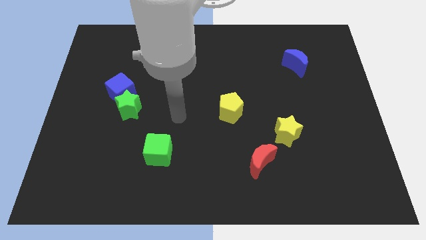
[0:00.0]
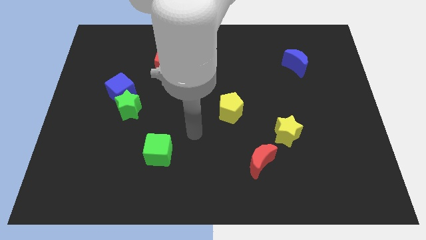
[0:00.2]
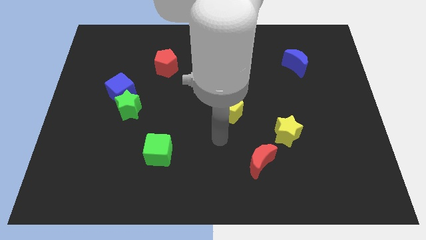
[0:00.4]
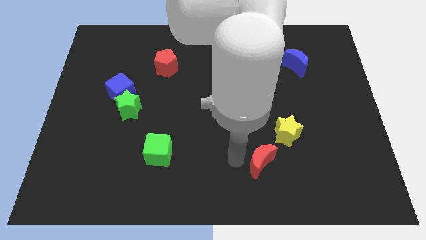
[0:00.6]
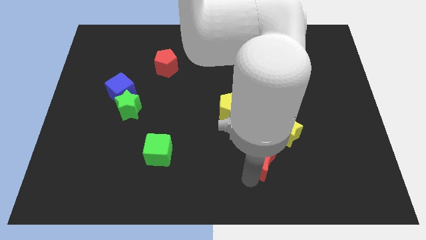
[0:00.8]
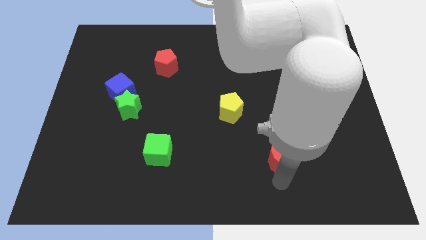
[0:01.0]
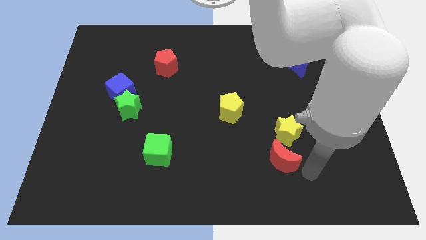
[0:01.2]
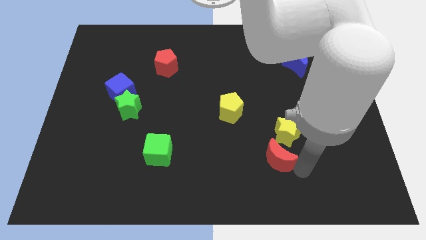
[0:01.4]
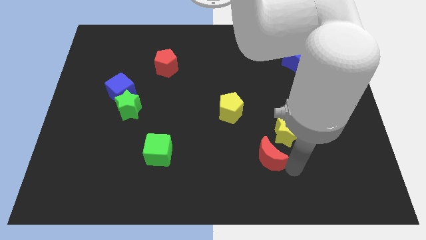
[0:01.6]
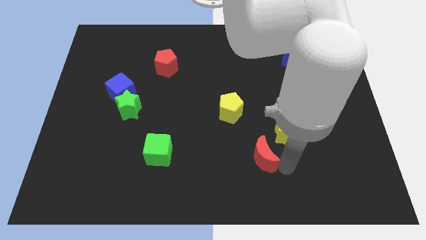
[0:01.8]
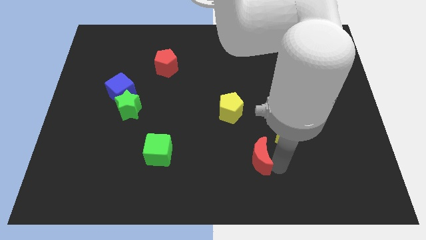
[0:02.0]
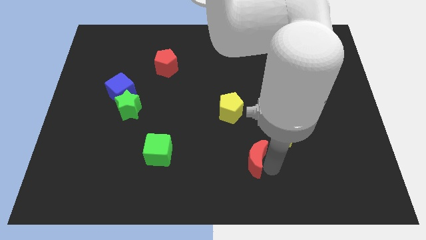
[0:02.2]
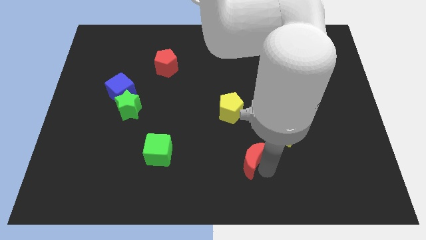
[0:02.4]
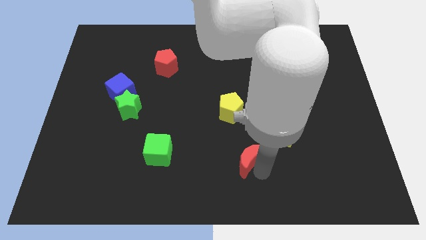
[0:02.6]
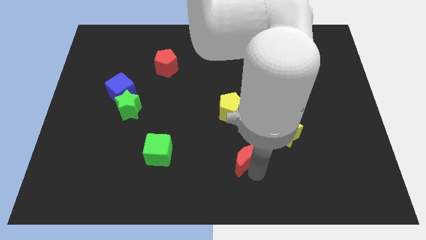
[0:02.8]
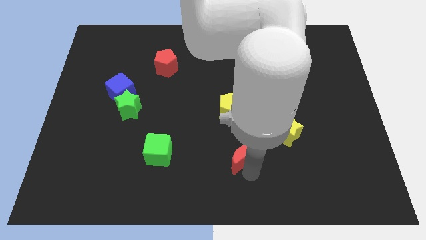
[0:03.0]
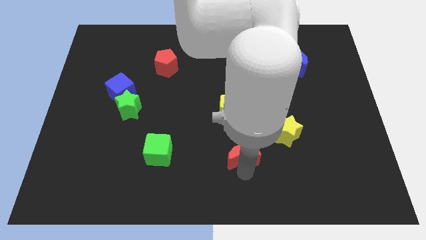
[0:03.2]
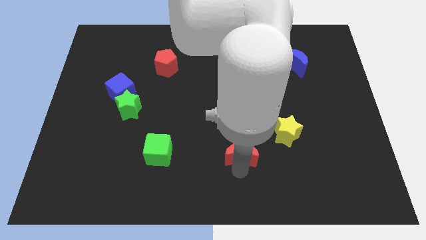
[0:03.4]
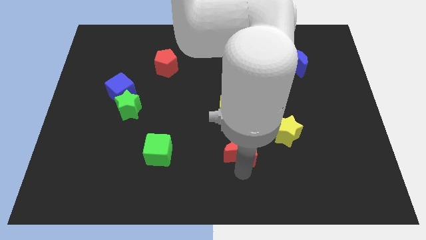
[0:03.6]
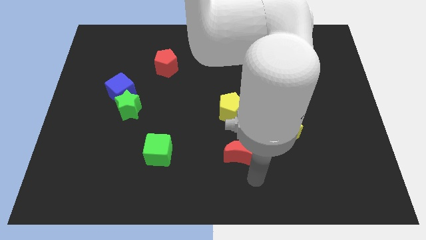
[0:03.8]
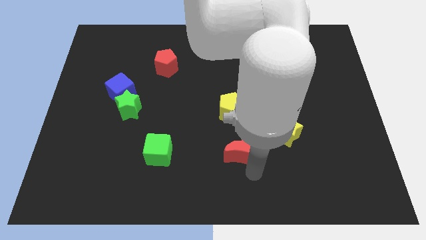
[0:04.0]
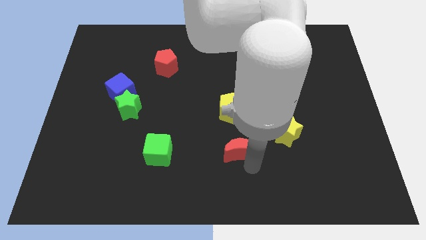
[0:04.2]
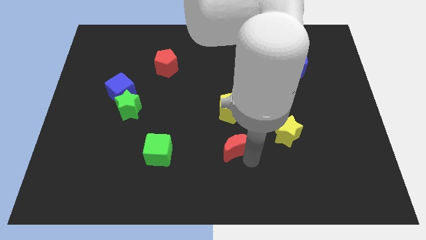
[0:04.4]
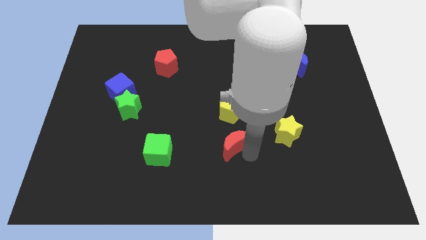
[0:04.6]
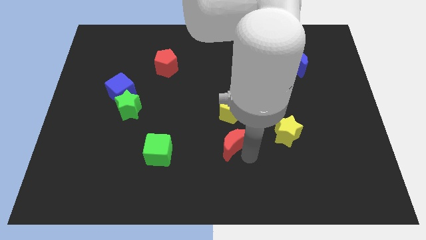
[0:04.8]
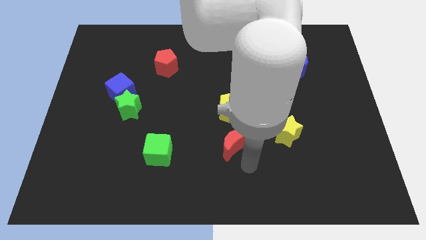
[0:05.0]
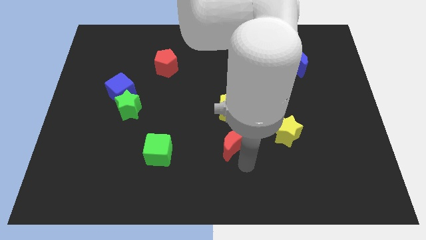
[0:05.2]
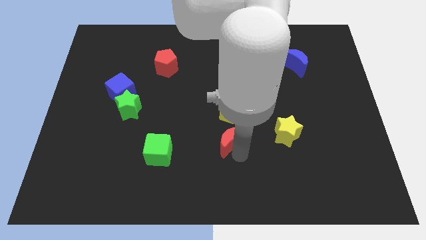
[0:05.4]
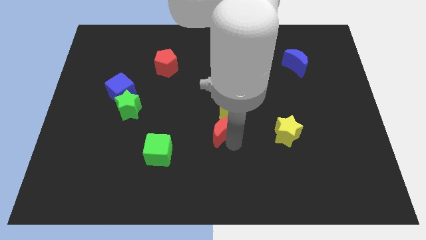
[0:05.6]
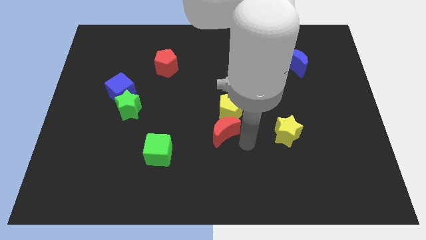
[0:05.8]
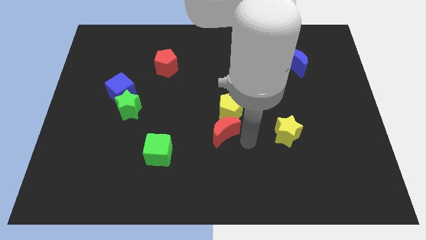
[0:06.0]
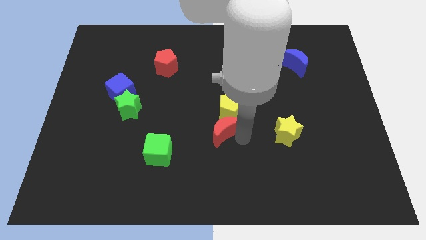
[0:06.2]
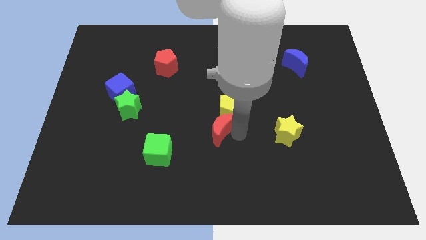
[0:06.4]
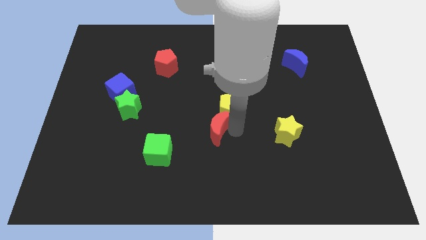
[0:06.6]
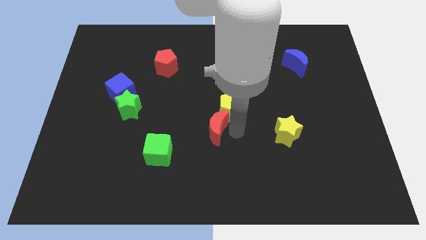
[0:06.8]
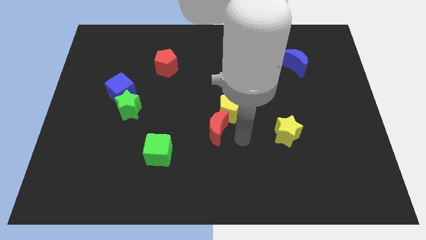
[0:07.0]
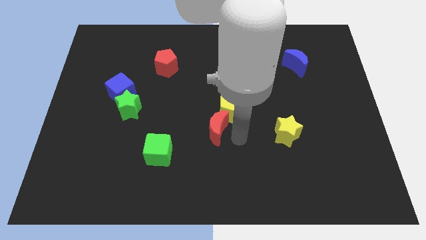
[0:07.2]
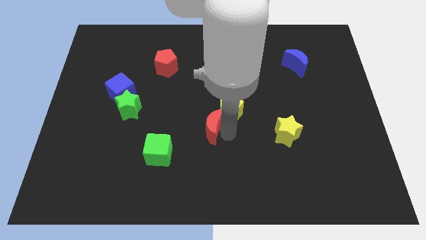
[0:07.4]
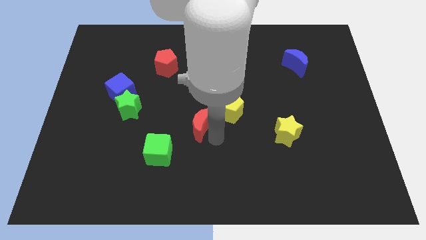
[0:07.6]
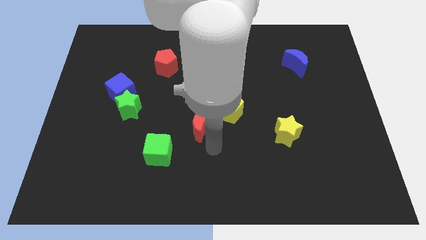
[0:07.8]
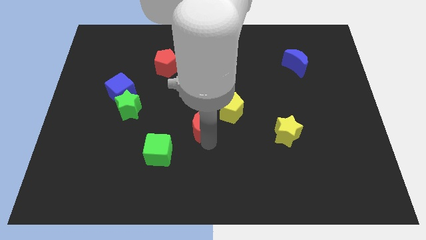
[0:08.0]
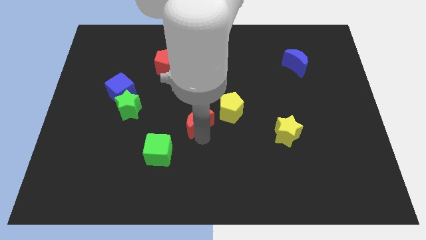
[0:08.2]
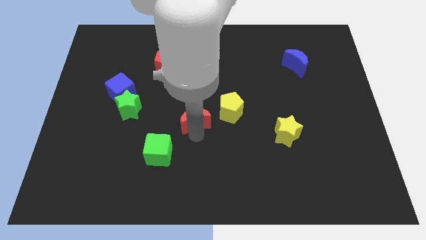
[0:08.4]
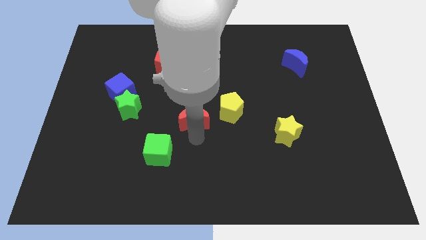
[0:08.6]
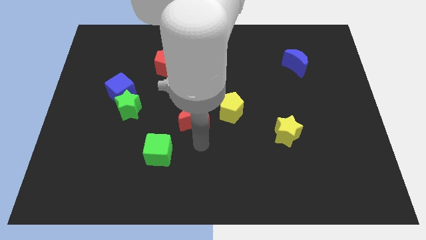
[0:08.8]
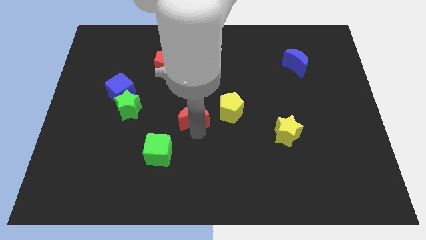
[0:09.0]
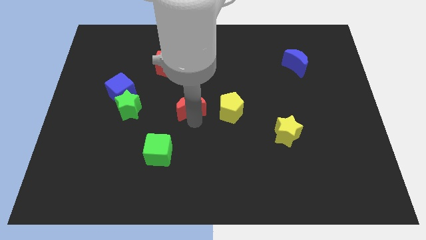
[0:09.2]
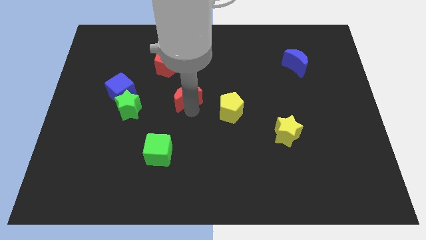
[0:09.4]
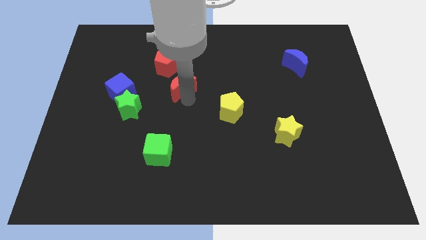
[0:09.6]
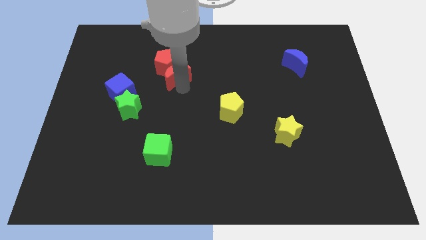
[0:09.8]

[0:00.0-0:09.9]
push the red moon to the red pentagon

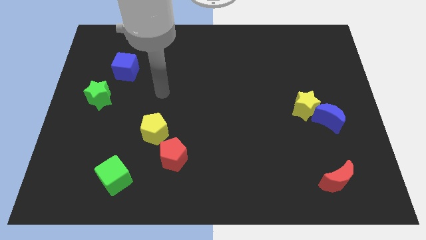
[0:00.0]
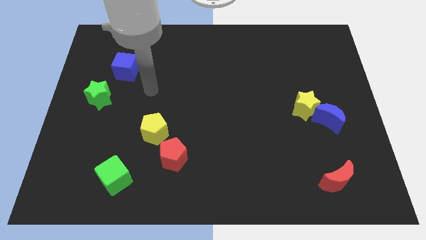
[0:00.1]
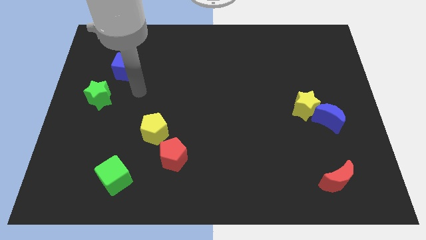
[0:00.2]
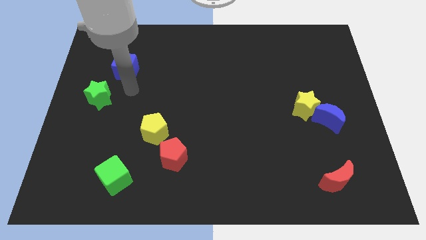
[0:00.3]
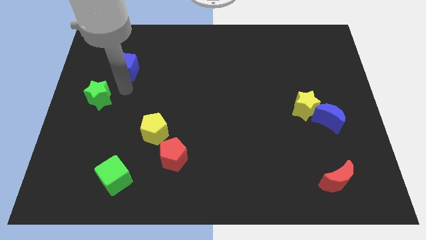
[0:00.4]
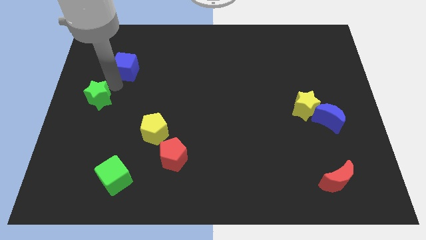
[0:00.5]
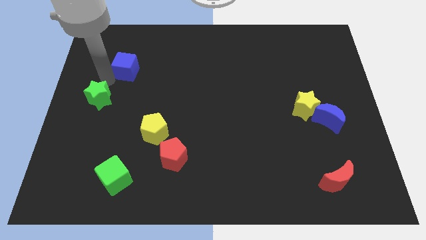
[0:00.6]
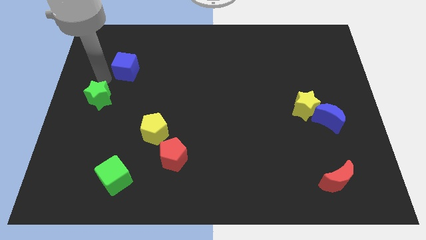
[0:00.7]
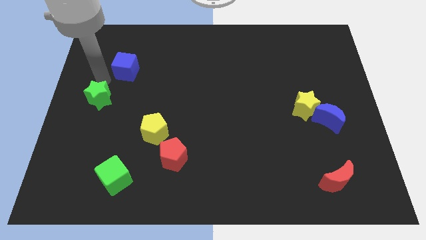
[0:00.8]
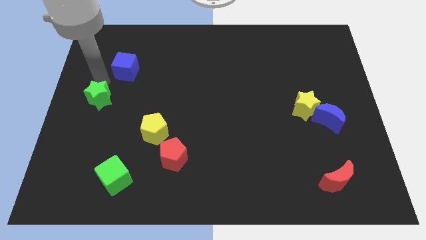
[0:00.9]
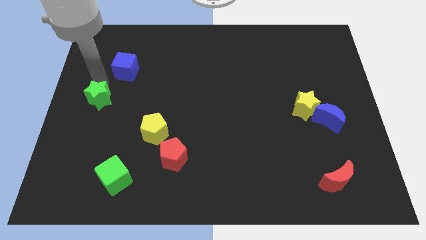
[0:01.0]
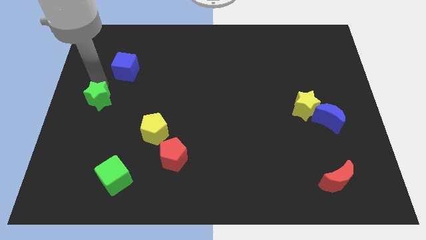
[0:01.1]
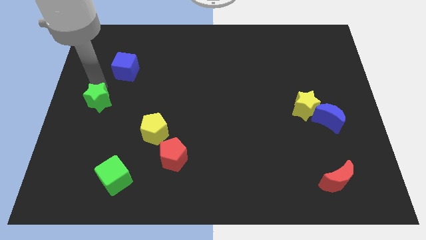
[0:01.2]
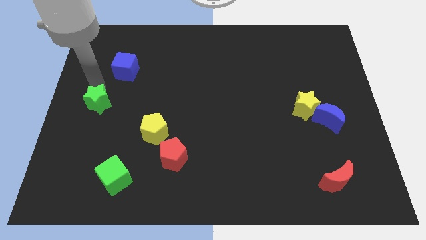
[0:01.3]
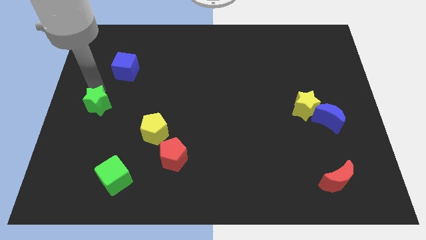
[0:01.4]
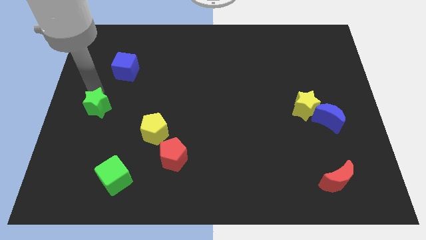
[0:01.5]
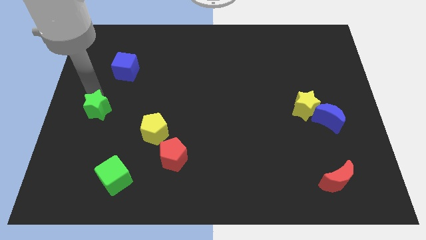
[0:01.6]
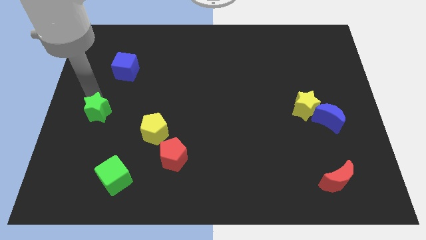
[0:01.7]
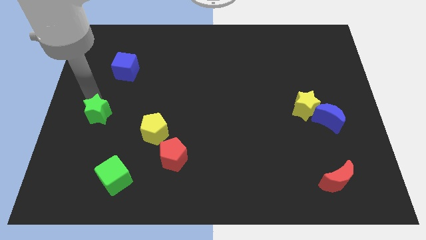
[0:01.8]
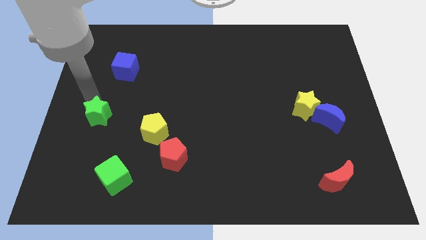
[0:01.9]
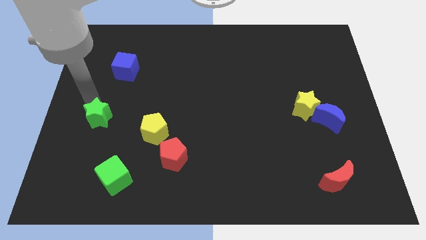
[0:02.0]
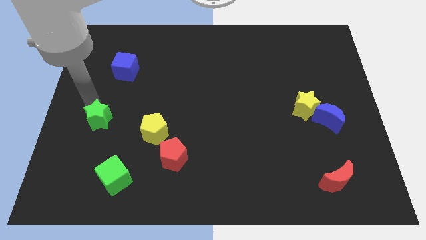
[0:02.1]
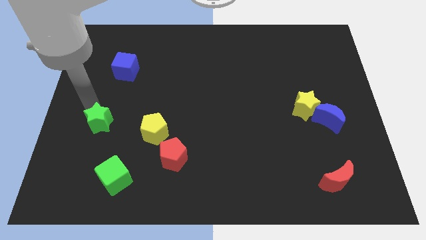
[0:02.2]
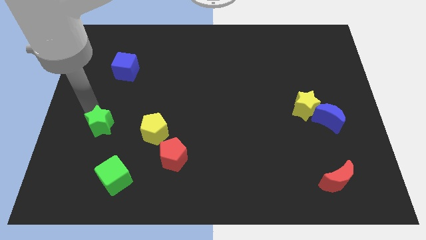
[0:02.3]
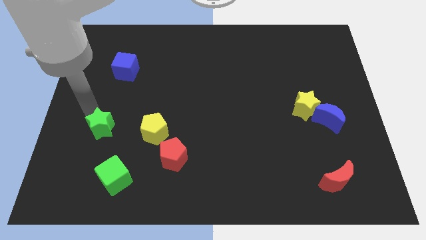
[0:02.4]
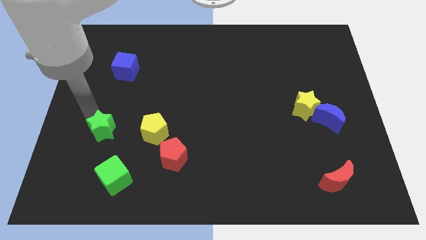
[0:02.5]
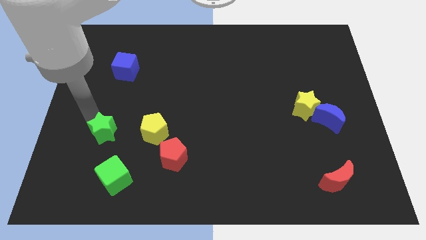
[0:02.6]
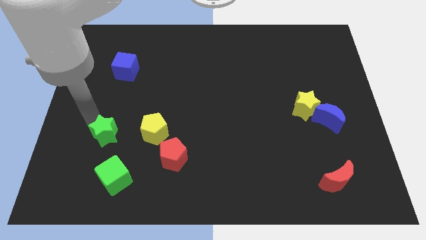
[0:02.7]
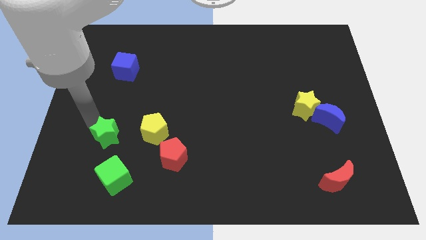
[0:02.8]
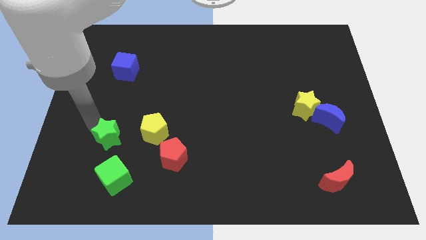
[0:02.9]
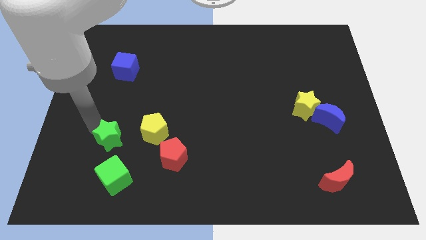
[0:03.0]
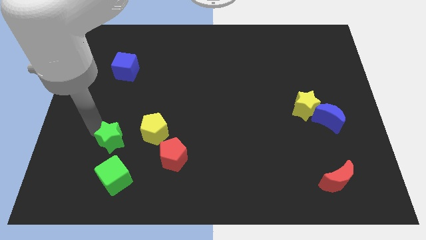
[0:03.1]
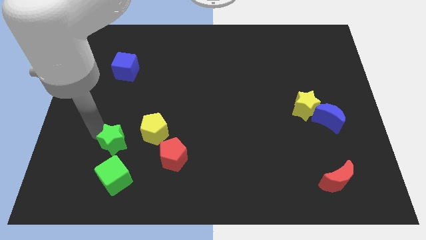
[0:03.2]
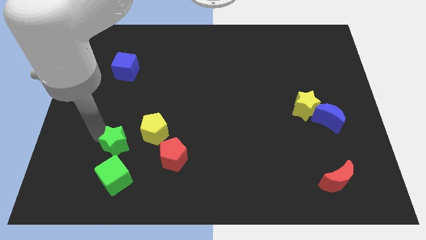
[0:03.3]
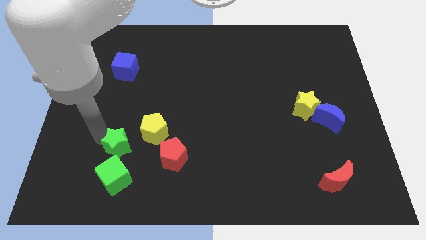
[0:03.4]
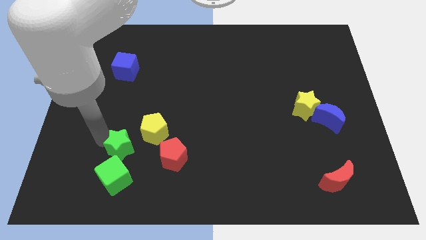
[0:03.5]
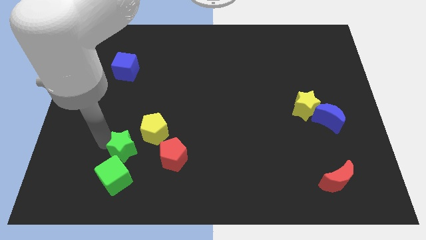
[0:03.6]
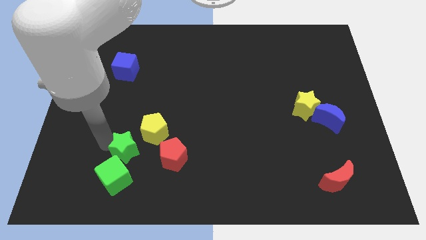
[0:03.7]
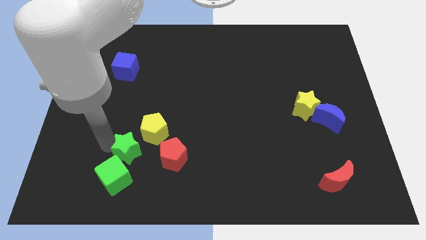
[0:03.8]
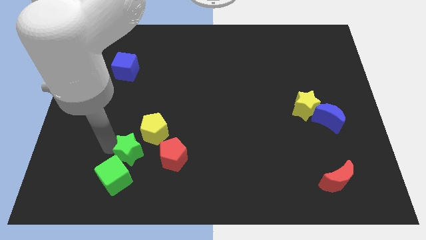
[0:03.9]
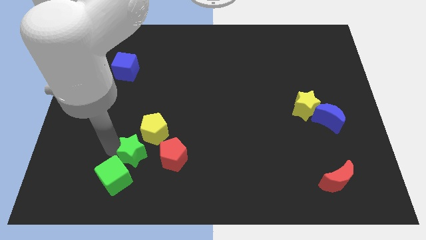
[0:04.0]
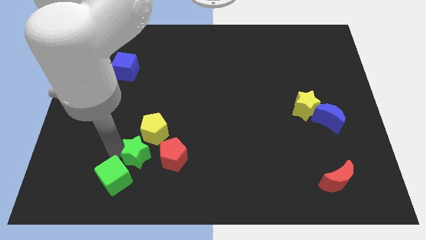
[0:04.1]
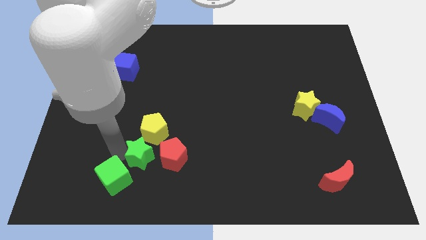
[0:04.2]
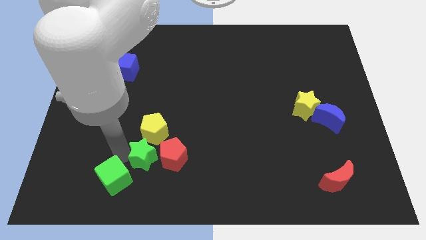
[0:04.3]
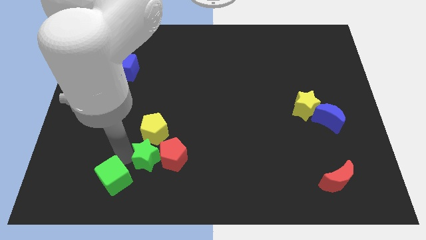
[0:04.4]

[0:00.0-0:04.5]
slide the green star next to the red pentagon
